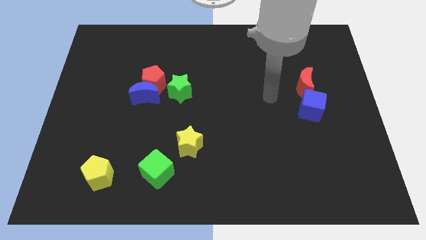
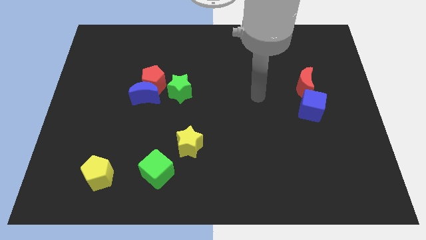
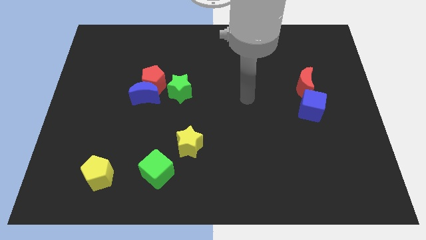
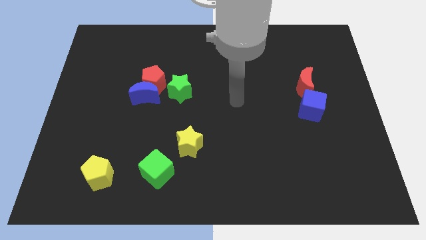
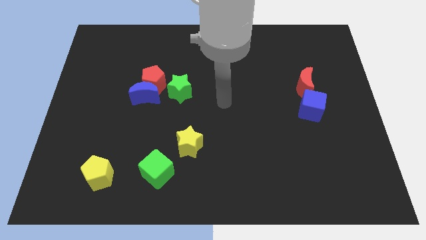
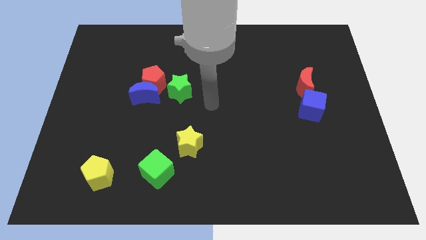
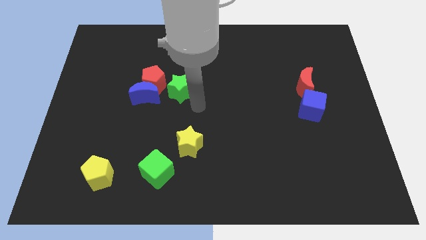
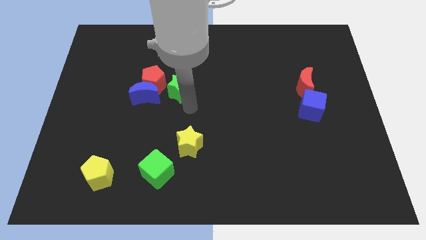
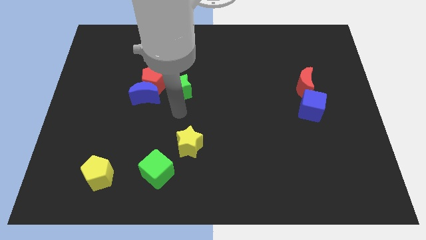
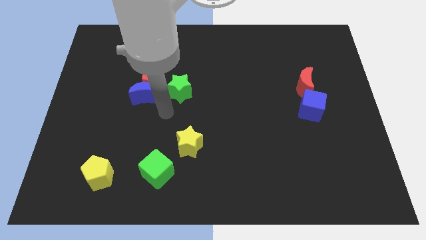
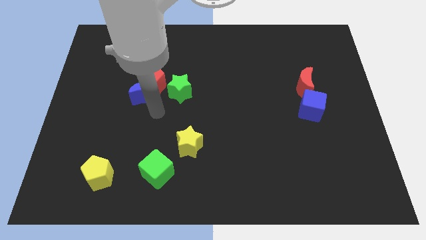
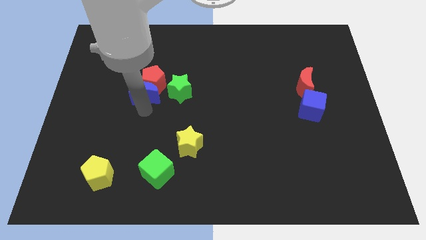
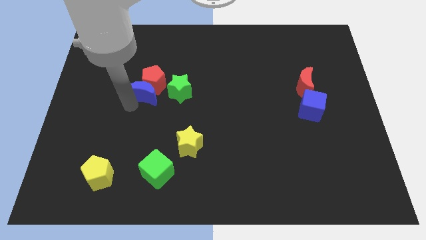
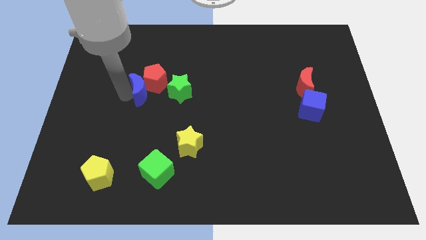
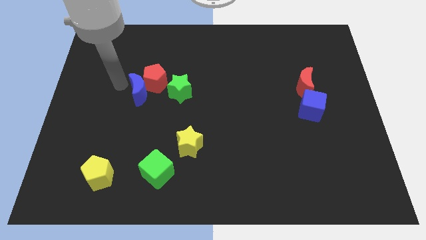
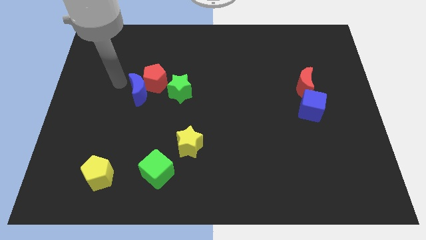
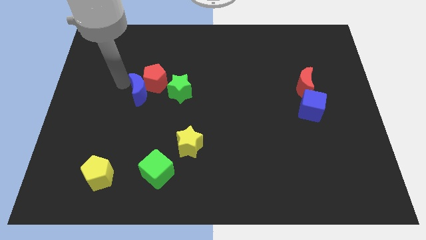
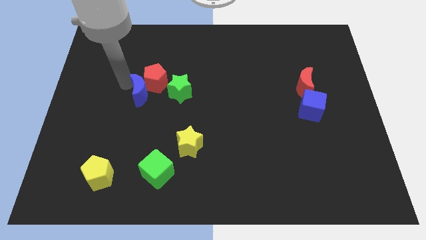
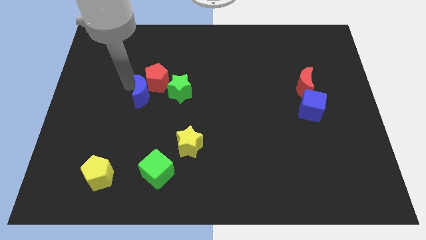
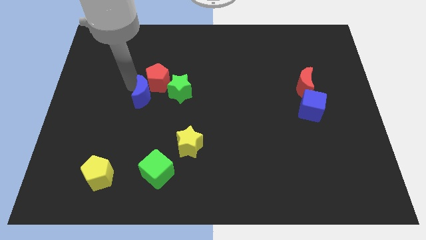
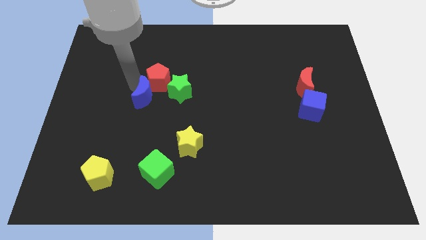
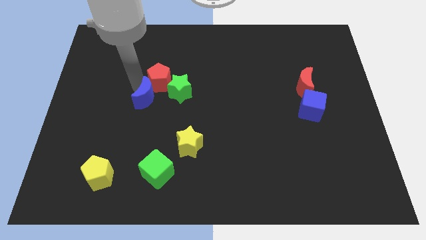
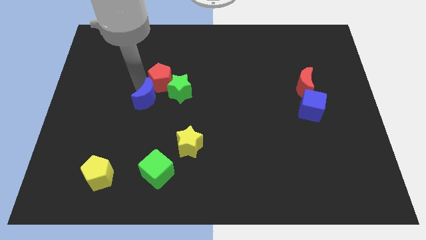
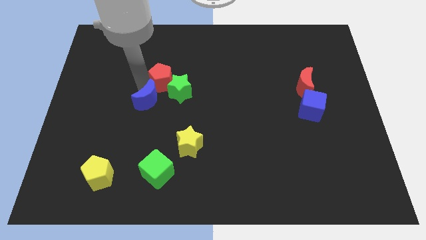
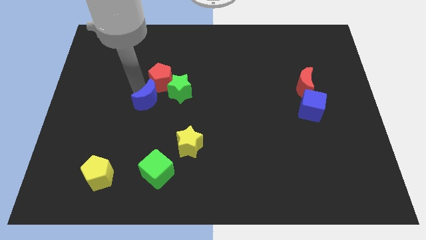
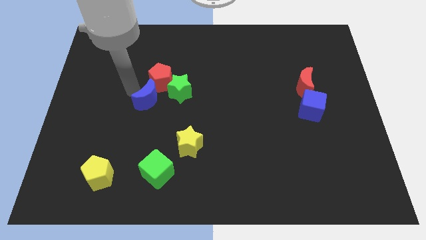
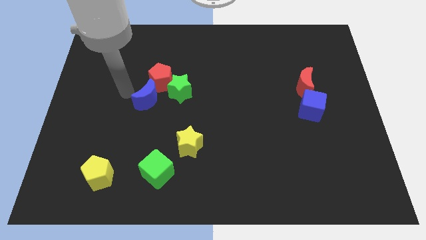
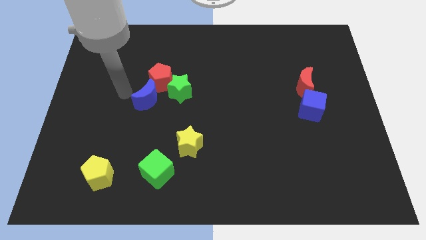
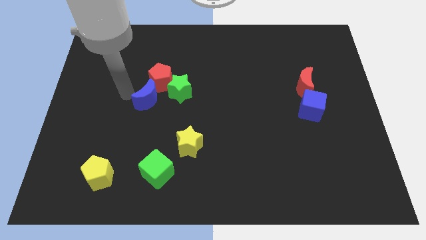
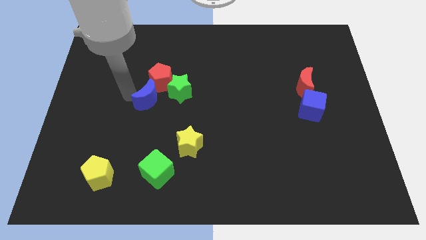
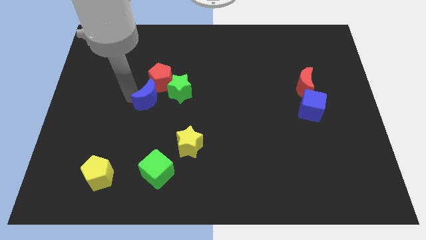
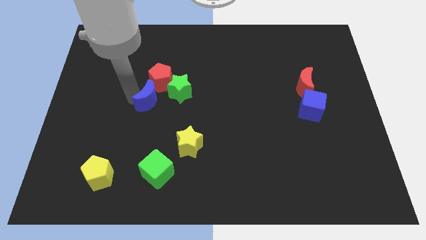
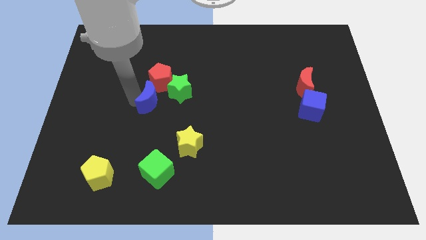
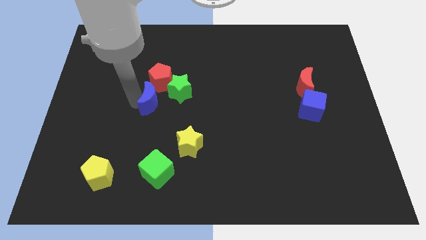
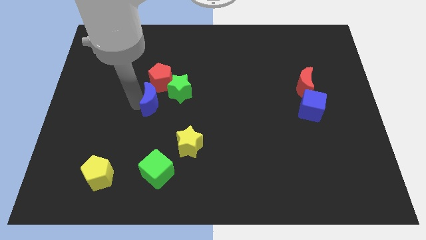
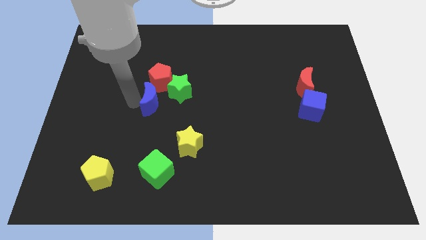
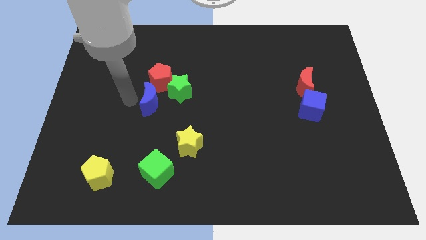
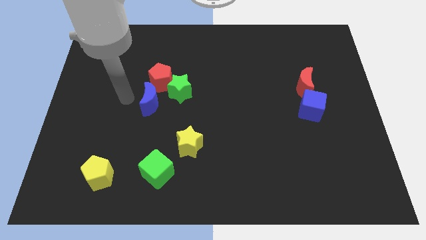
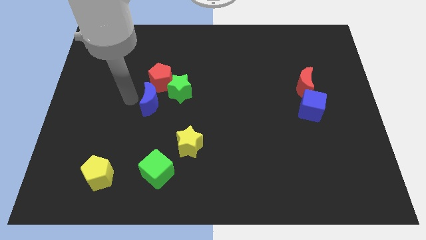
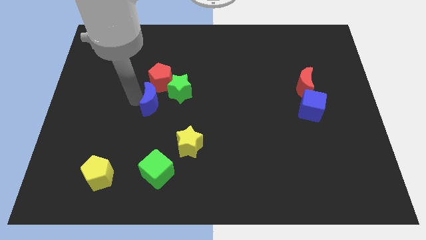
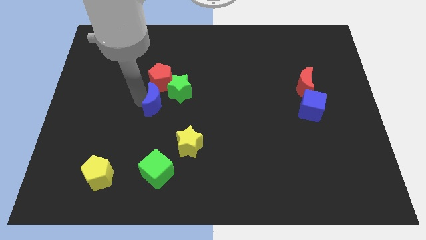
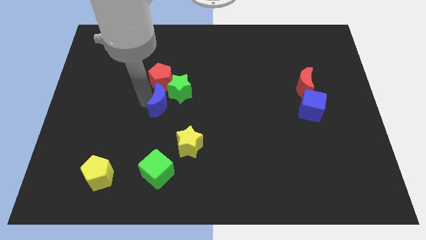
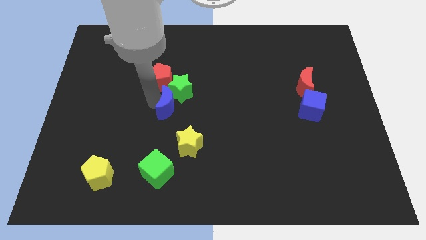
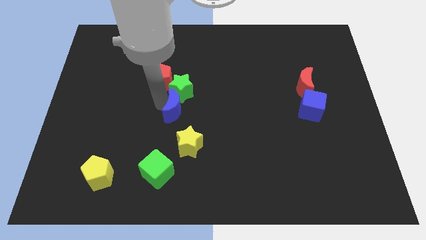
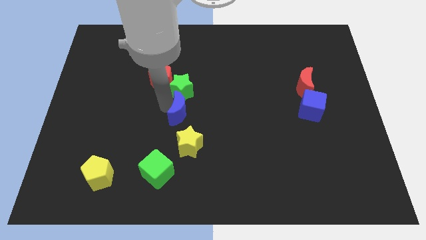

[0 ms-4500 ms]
push the blue moon a bit to the right

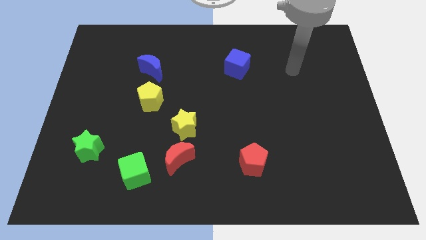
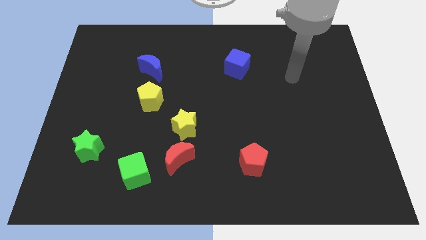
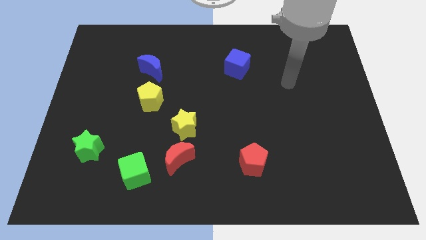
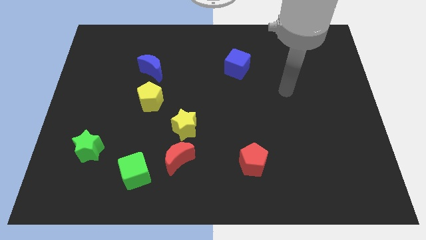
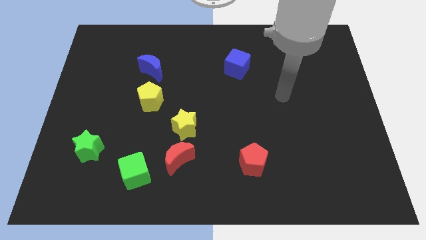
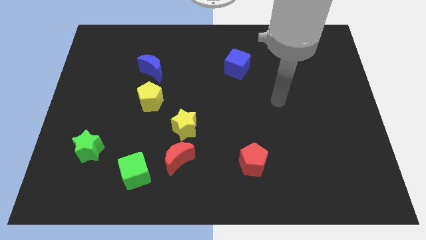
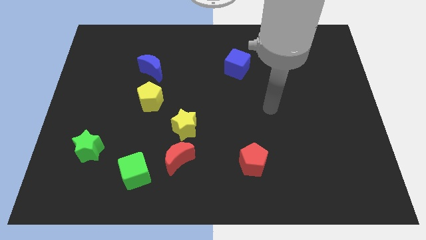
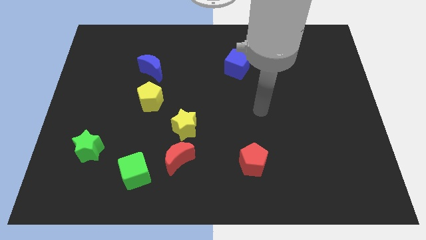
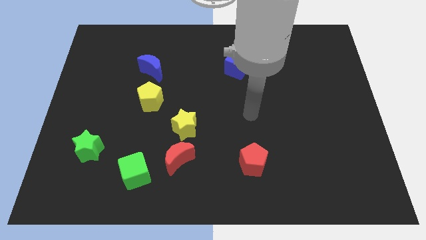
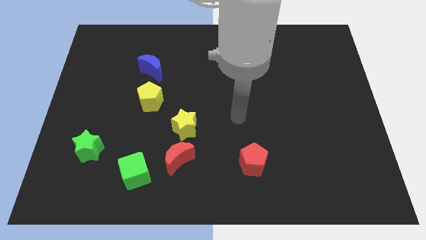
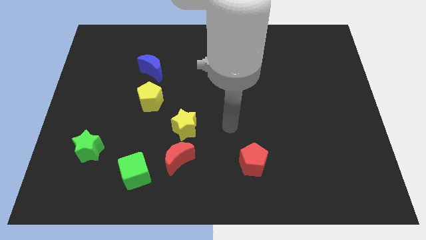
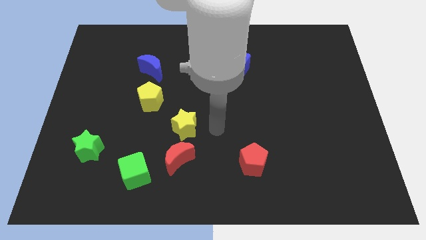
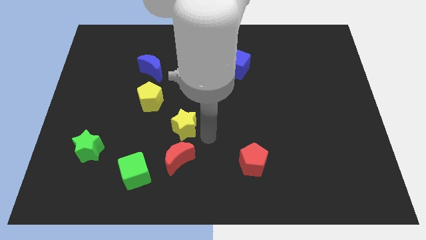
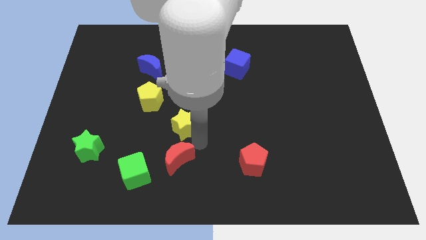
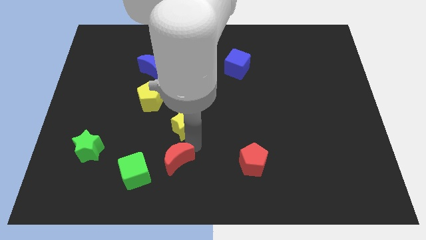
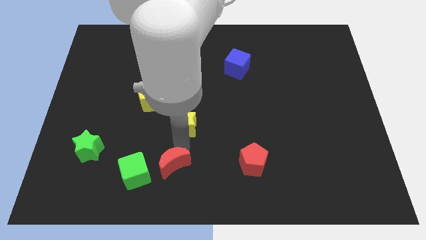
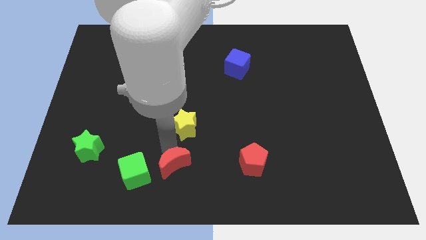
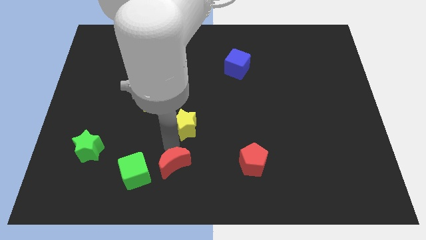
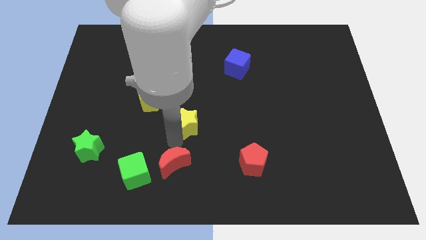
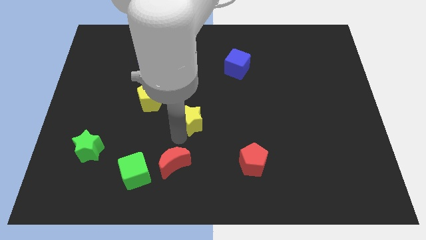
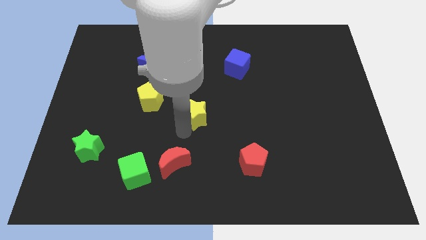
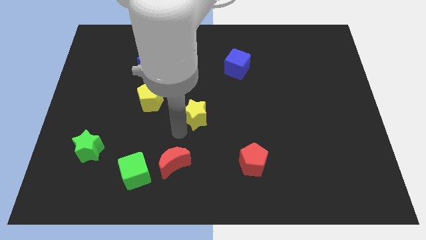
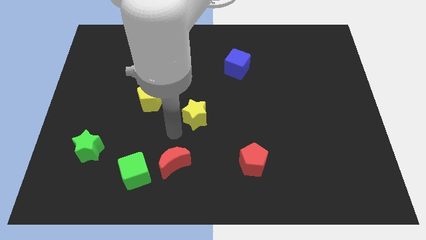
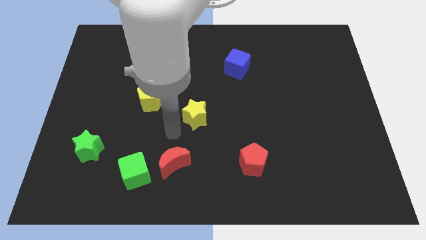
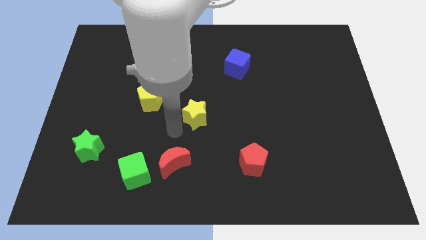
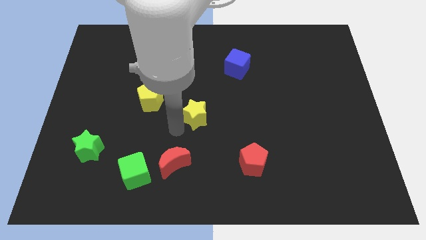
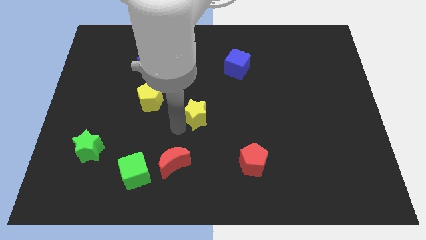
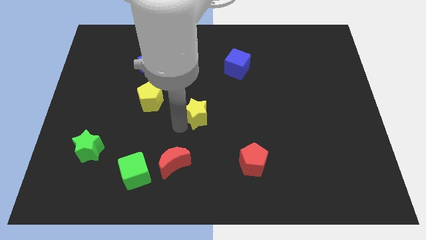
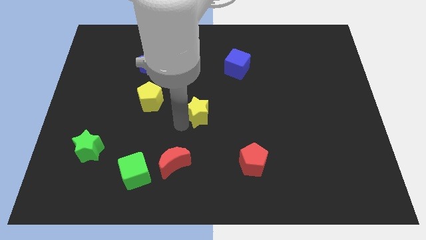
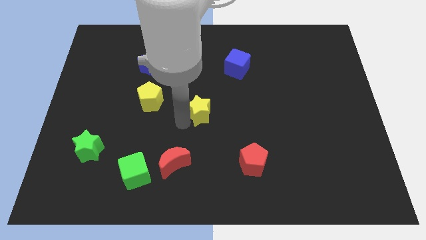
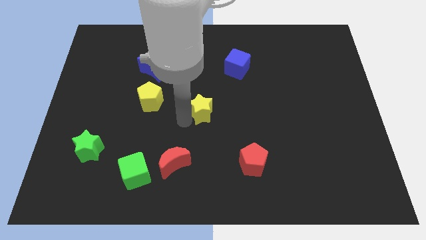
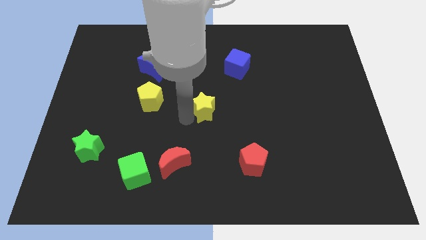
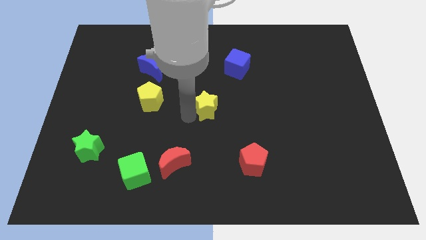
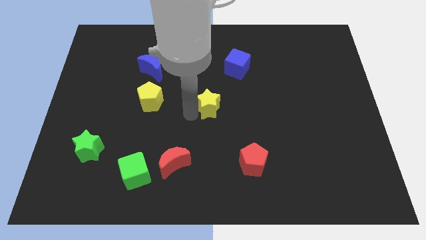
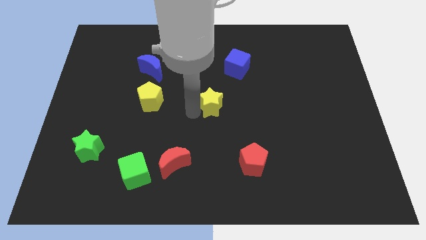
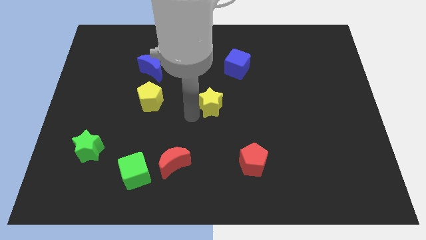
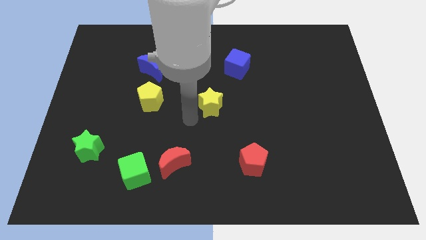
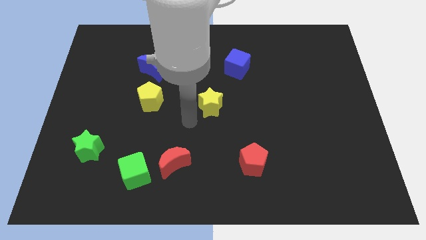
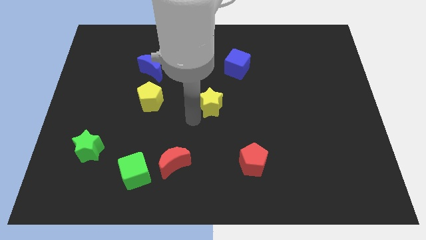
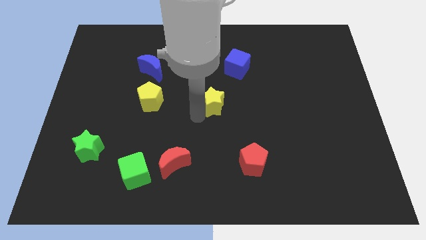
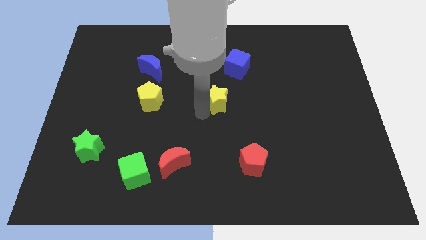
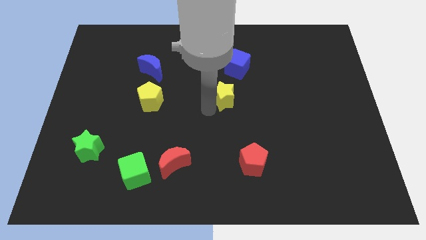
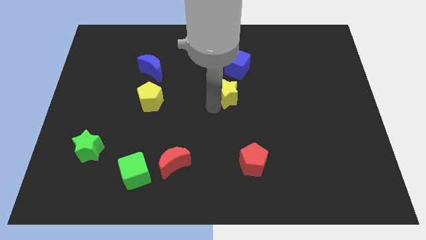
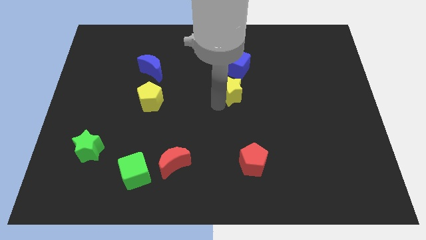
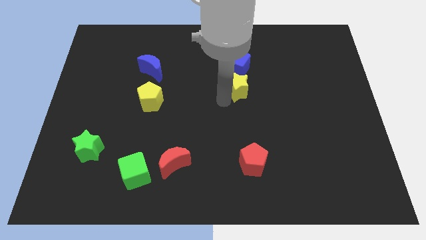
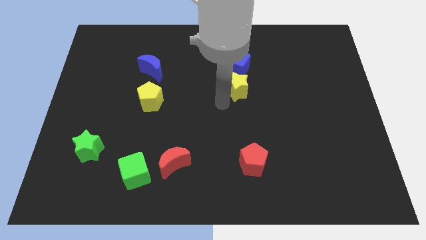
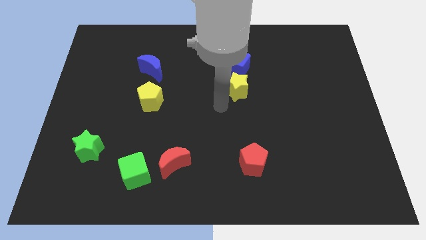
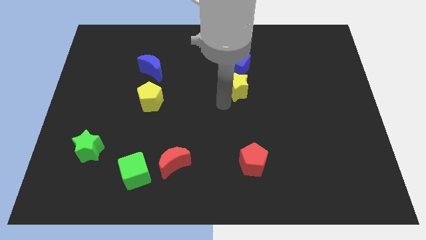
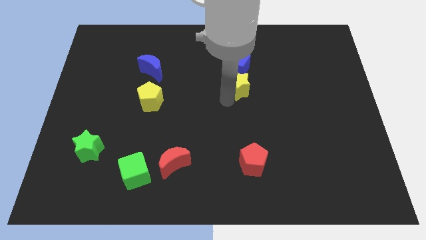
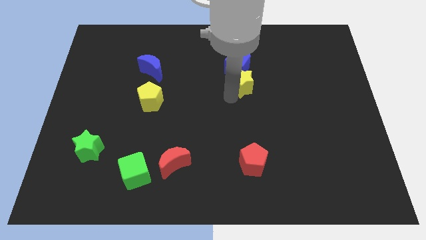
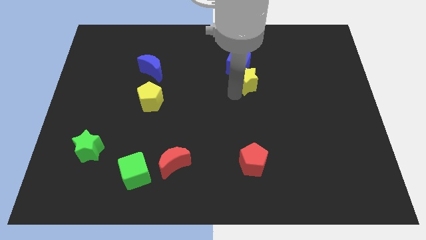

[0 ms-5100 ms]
move the yellow star upwards and then right
